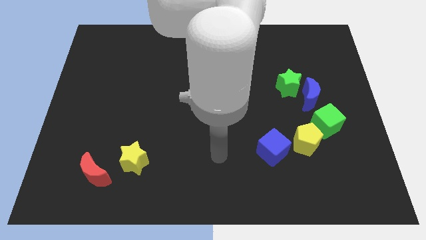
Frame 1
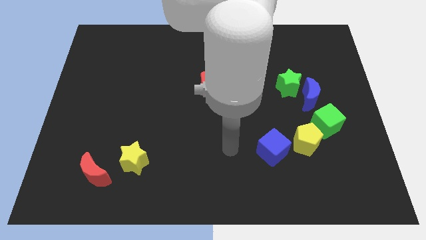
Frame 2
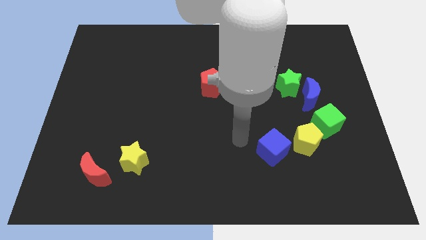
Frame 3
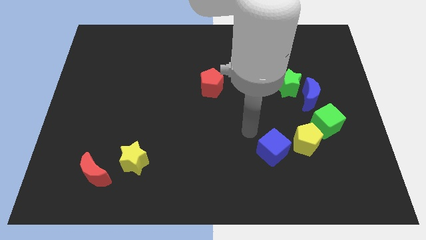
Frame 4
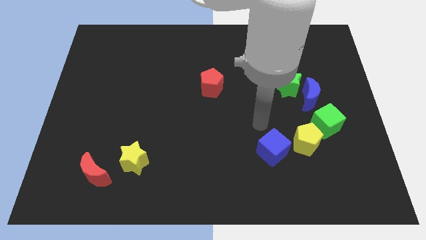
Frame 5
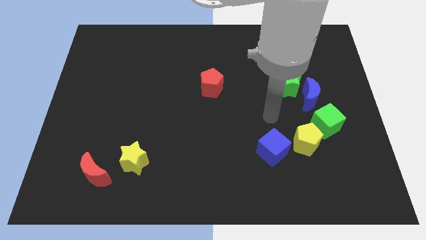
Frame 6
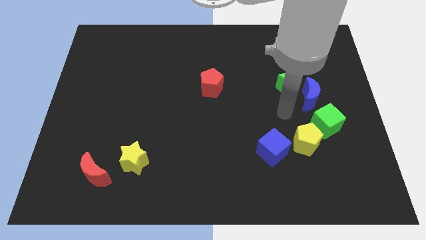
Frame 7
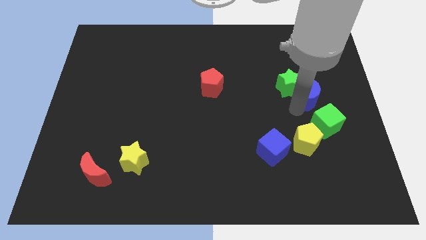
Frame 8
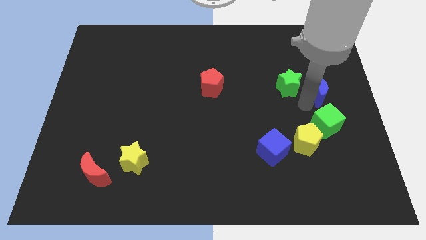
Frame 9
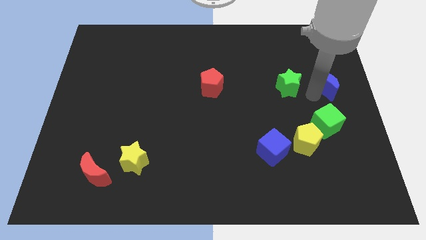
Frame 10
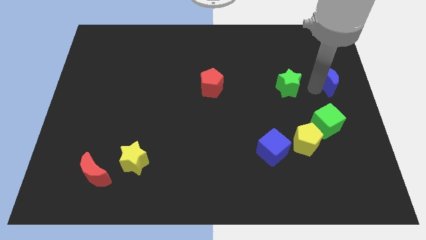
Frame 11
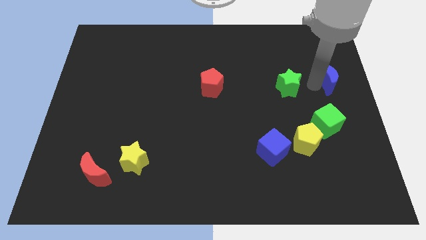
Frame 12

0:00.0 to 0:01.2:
move the green star away from the blue moon

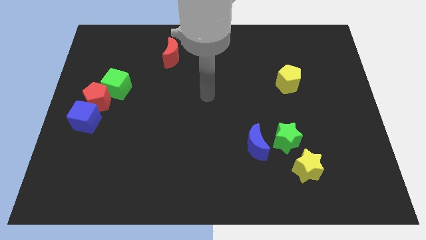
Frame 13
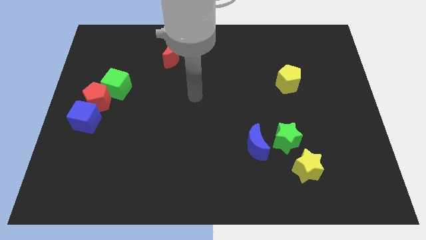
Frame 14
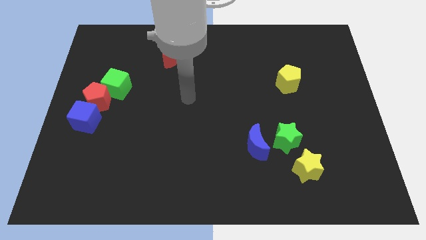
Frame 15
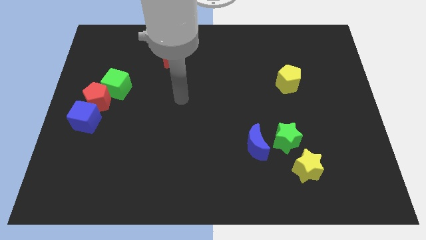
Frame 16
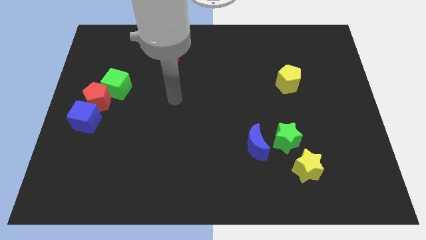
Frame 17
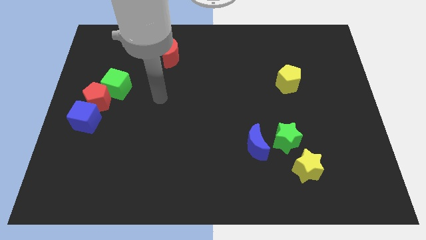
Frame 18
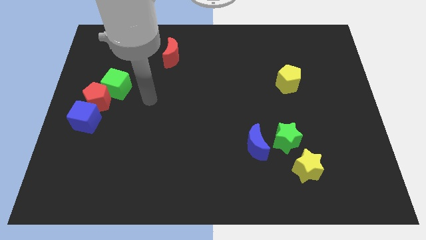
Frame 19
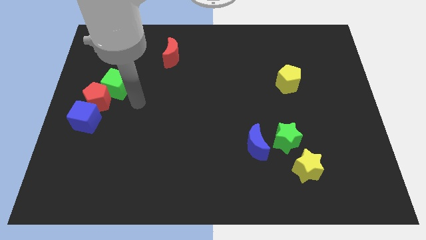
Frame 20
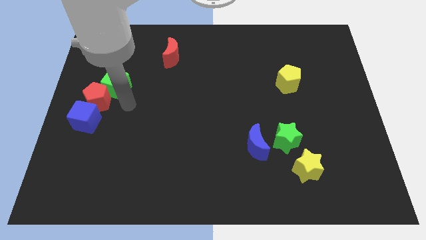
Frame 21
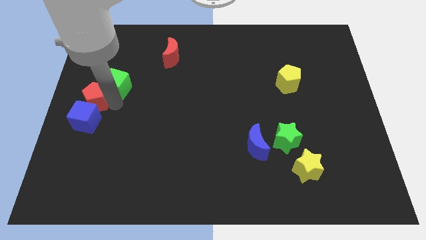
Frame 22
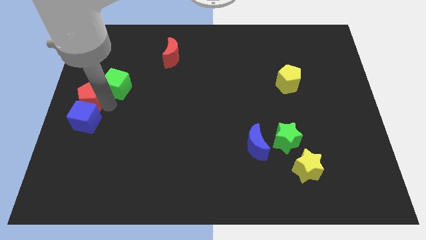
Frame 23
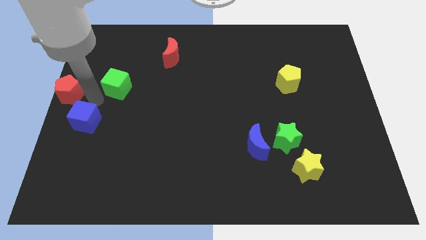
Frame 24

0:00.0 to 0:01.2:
move the green cube away from the red pentagon

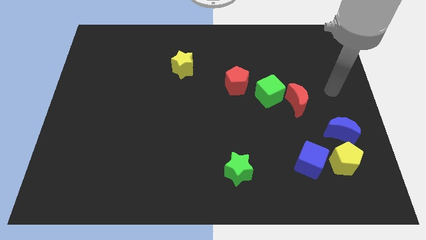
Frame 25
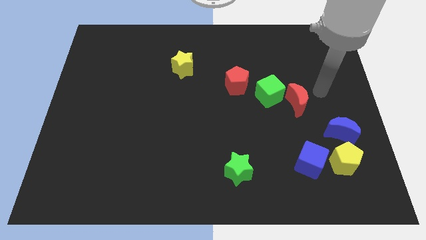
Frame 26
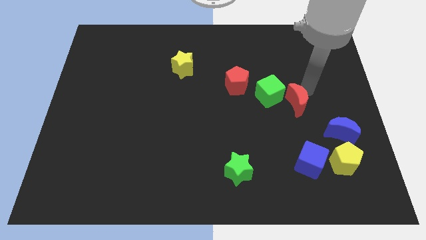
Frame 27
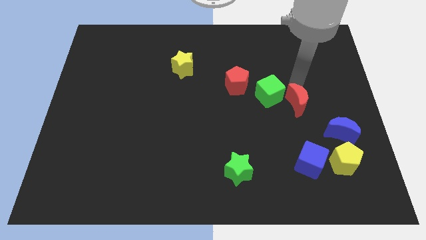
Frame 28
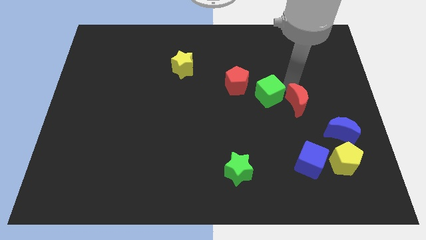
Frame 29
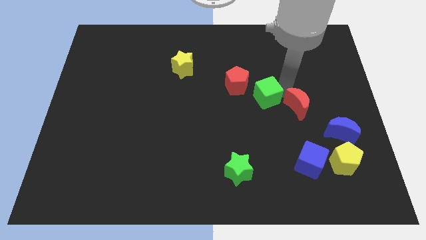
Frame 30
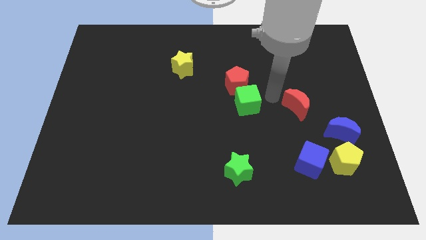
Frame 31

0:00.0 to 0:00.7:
separate the red moon from the green cube

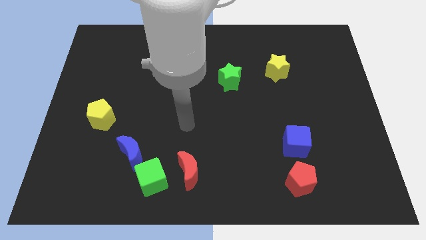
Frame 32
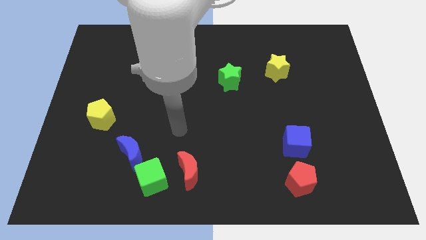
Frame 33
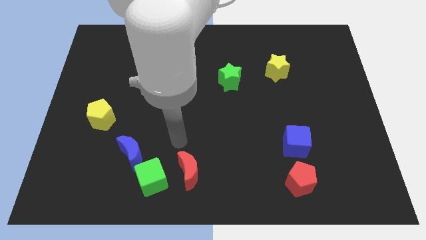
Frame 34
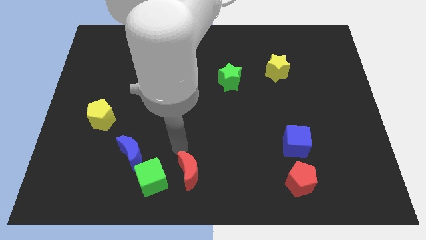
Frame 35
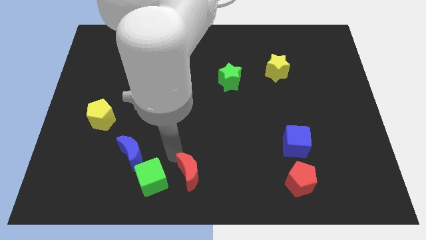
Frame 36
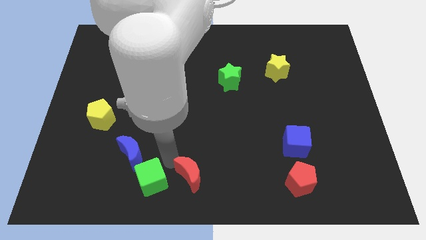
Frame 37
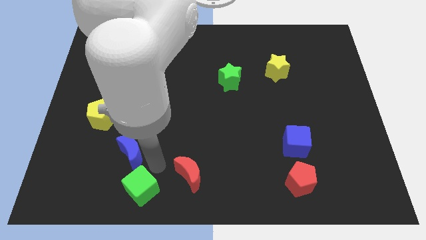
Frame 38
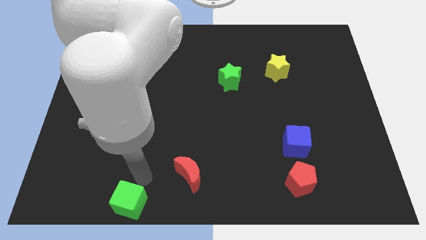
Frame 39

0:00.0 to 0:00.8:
pull the blue moon apart from the green cube

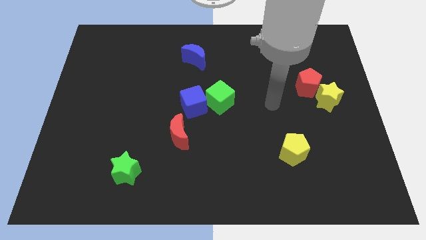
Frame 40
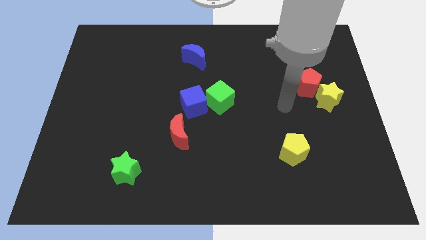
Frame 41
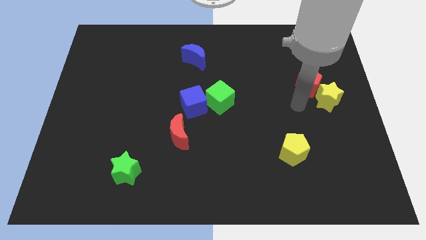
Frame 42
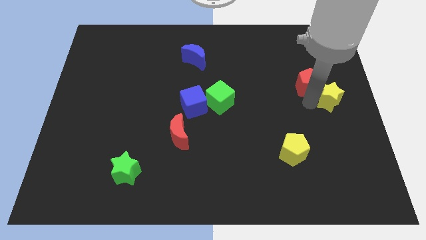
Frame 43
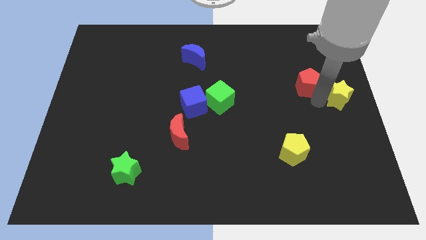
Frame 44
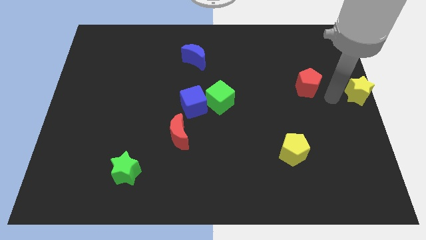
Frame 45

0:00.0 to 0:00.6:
pull the red pentagon apart from the yellow star

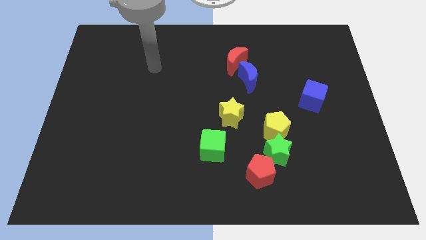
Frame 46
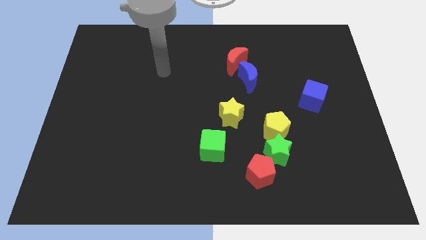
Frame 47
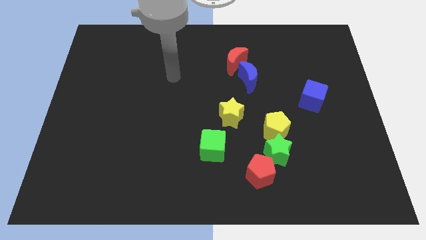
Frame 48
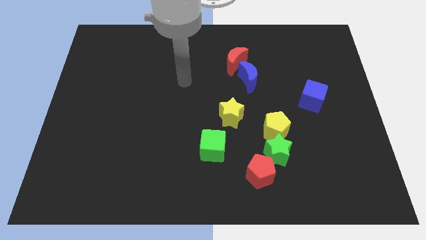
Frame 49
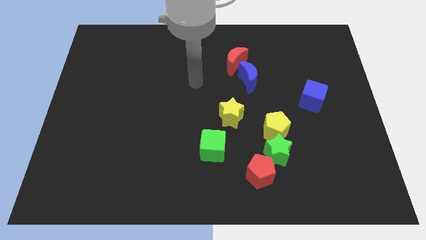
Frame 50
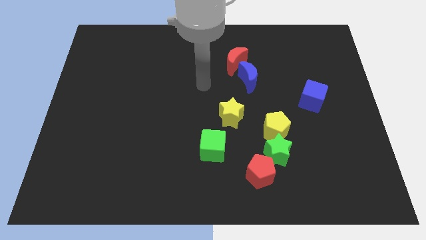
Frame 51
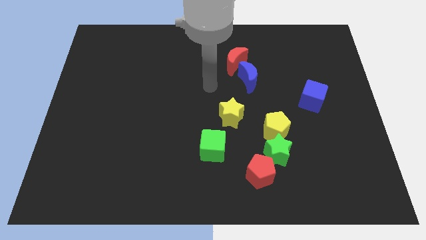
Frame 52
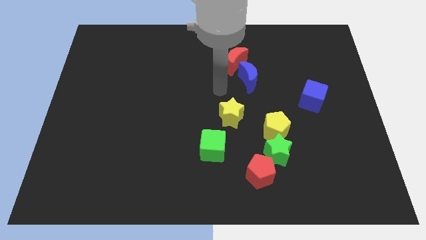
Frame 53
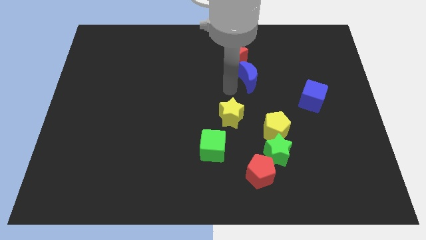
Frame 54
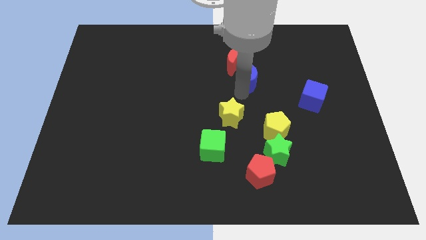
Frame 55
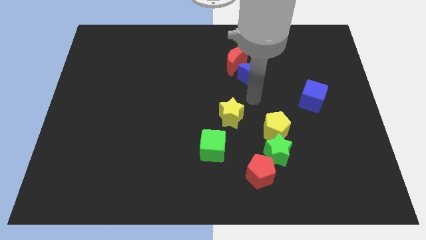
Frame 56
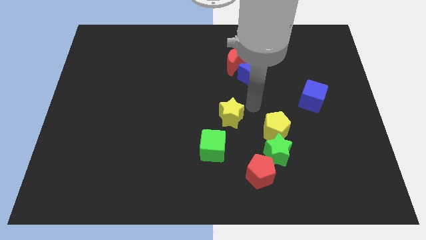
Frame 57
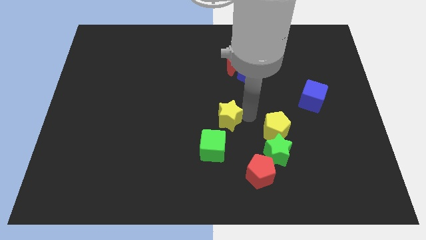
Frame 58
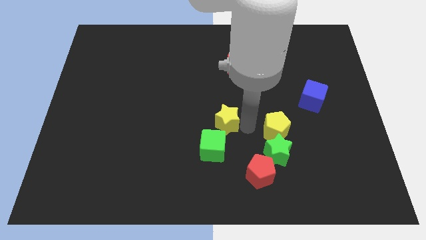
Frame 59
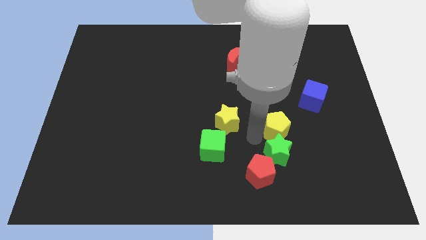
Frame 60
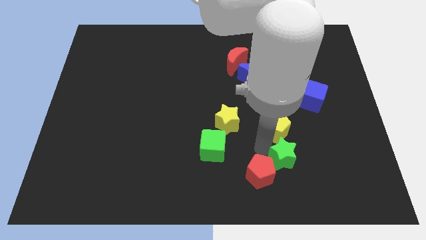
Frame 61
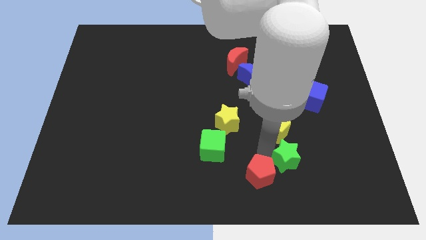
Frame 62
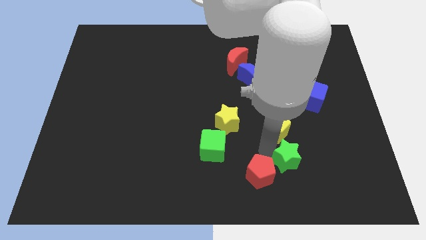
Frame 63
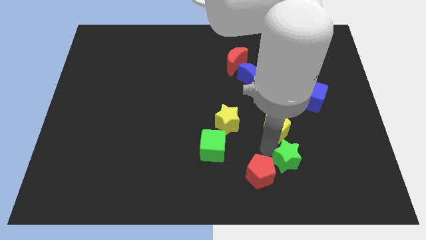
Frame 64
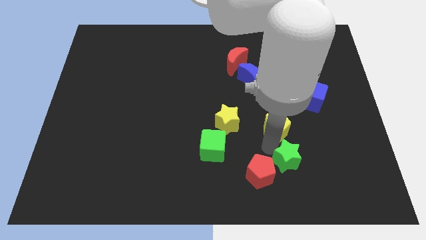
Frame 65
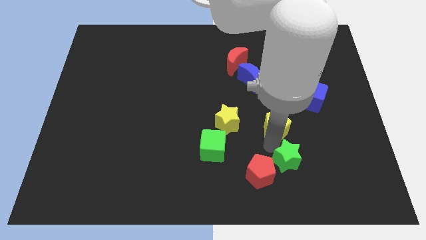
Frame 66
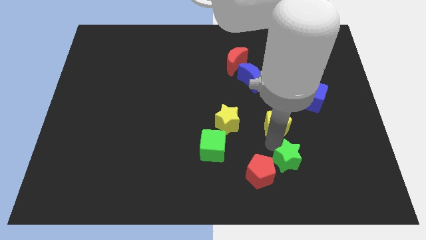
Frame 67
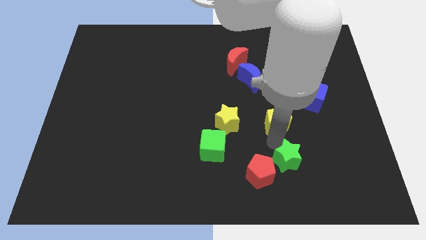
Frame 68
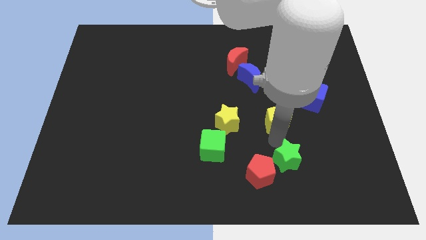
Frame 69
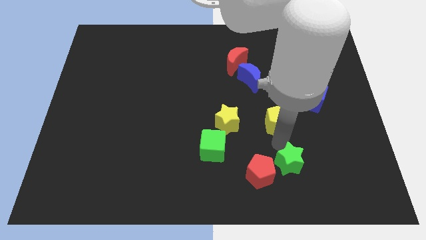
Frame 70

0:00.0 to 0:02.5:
move the yellow pentagon away from the green star

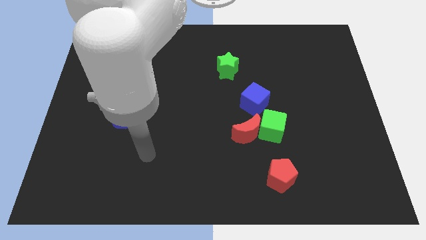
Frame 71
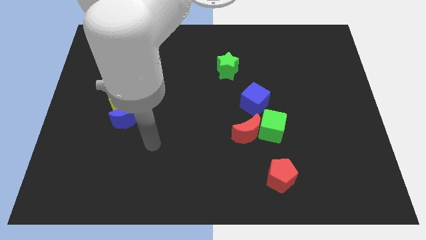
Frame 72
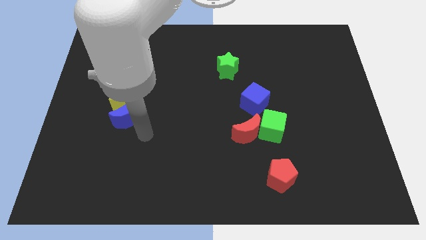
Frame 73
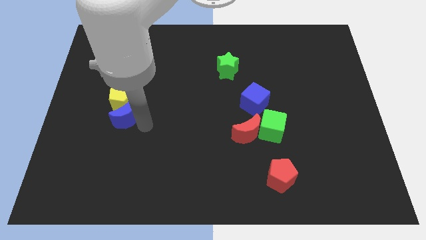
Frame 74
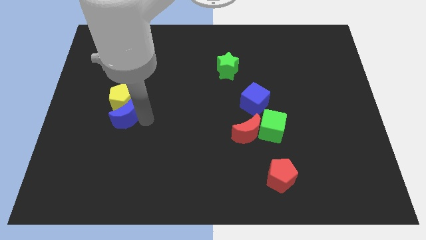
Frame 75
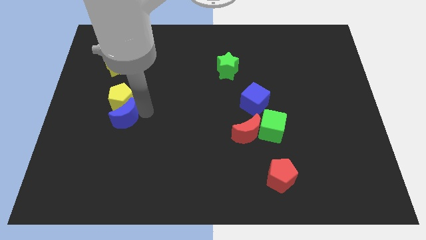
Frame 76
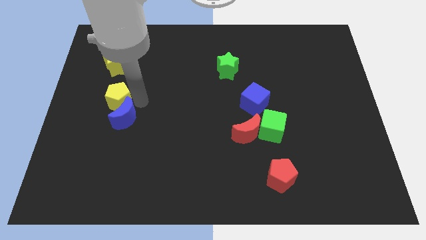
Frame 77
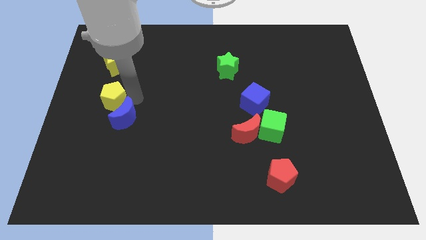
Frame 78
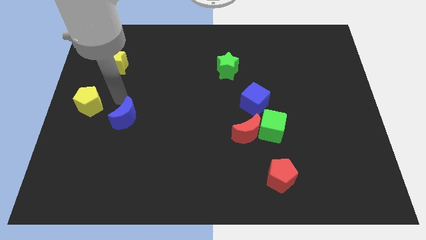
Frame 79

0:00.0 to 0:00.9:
pull the blue moon apart from the yellow pentagon

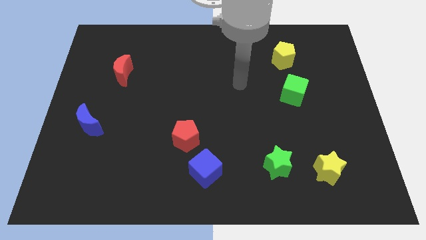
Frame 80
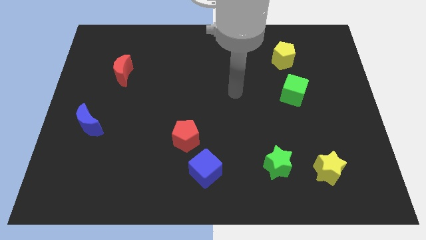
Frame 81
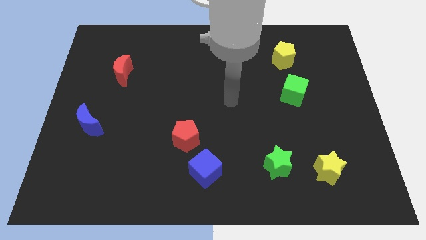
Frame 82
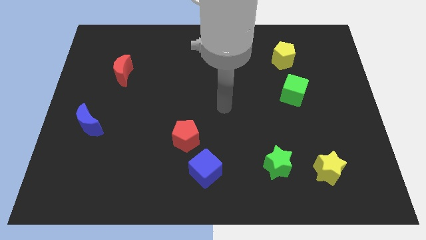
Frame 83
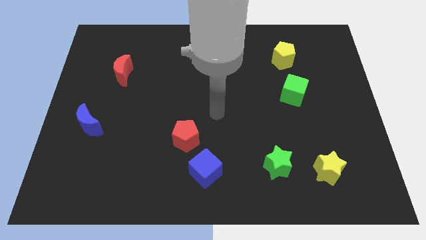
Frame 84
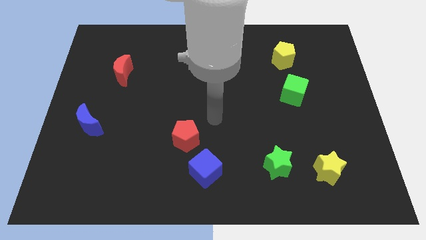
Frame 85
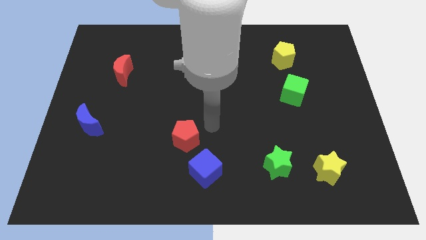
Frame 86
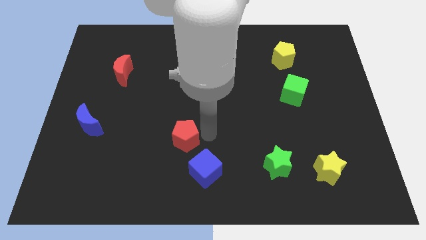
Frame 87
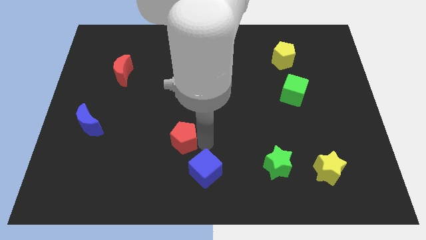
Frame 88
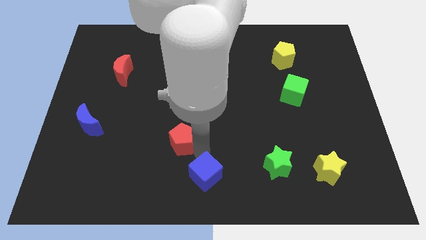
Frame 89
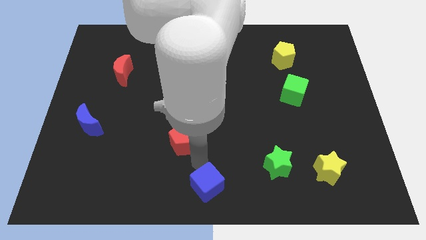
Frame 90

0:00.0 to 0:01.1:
separate the red pentagon from the blue cube

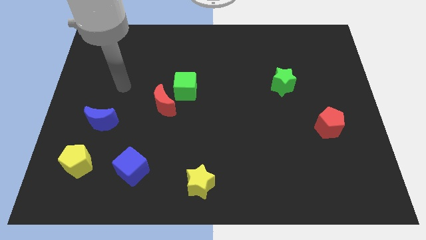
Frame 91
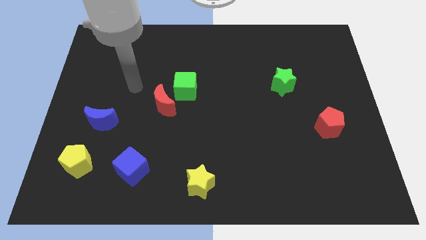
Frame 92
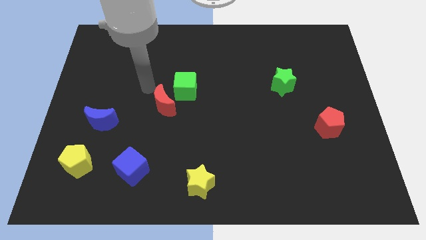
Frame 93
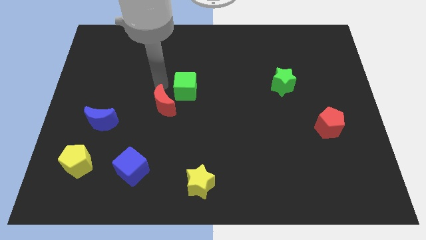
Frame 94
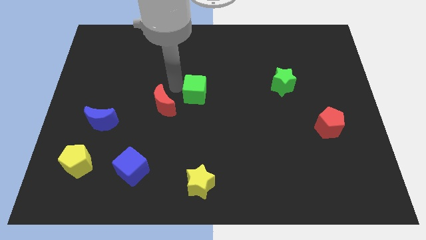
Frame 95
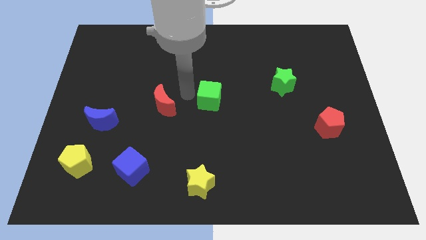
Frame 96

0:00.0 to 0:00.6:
pull the red moon apart from the green cube
